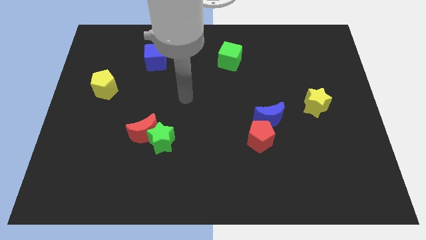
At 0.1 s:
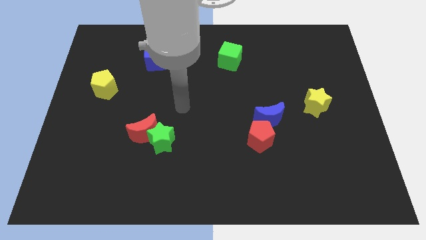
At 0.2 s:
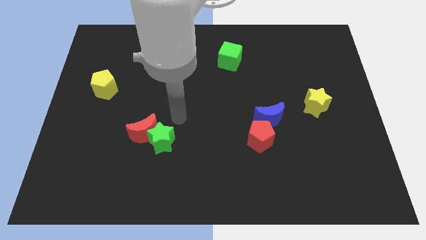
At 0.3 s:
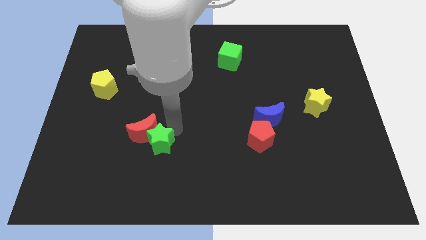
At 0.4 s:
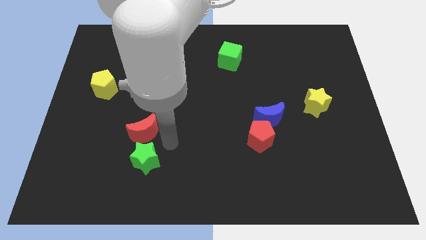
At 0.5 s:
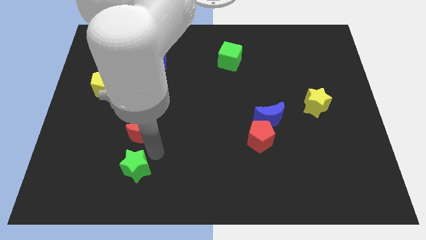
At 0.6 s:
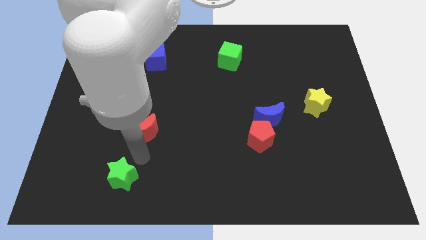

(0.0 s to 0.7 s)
separate the red moon from the green star

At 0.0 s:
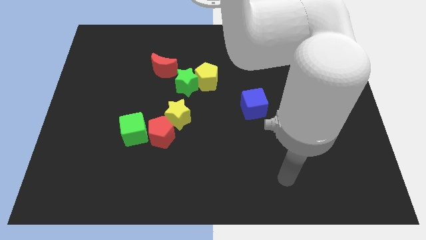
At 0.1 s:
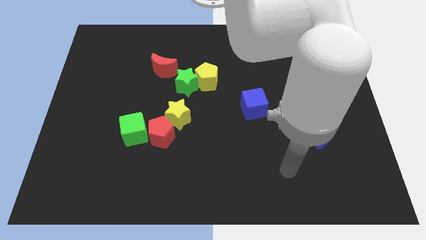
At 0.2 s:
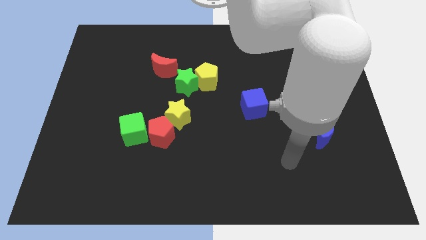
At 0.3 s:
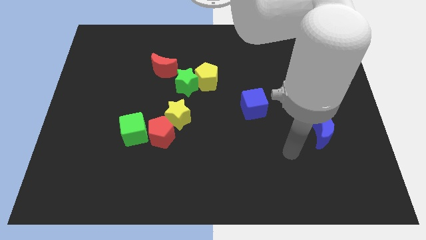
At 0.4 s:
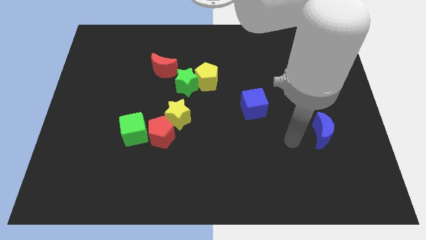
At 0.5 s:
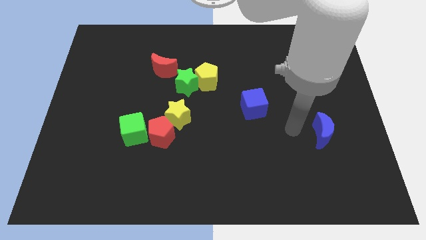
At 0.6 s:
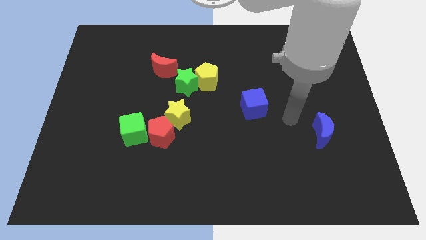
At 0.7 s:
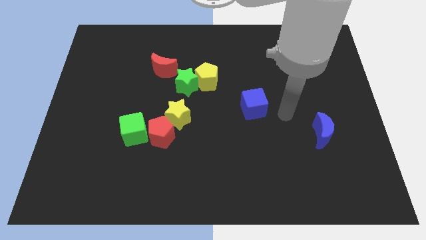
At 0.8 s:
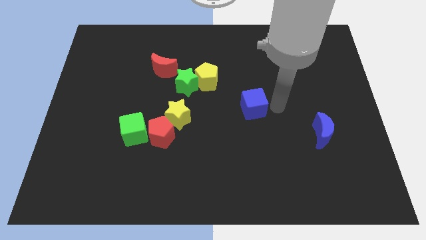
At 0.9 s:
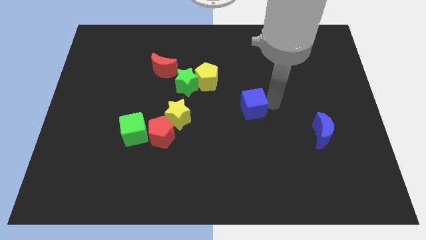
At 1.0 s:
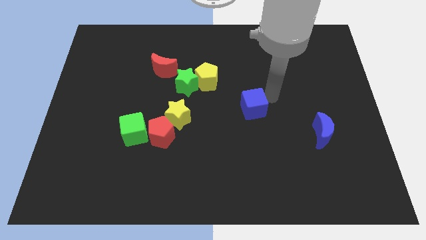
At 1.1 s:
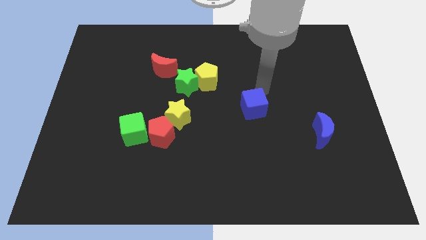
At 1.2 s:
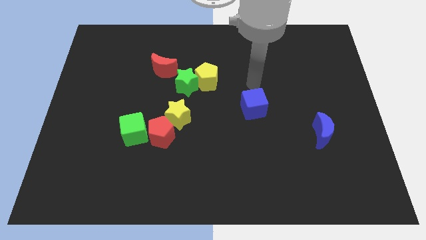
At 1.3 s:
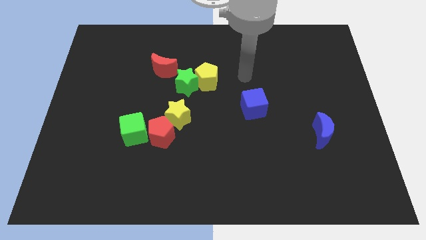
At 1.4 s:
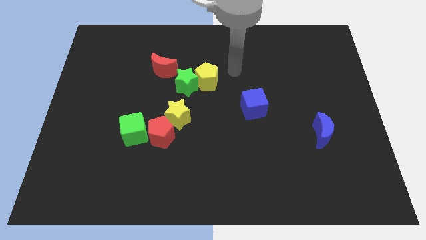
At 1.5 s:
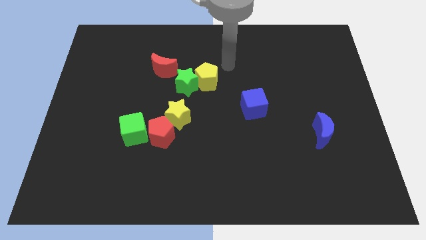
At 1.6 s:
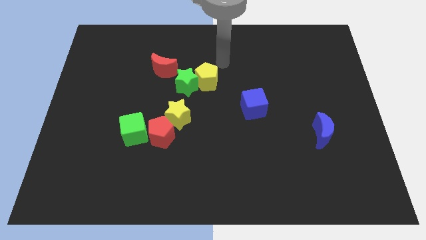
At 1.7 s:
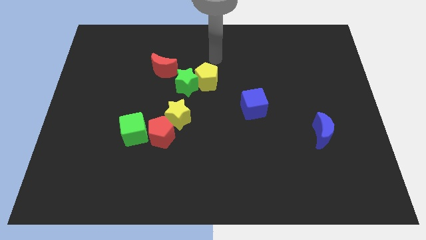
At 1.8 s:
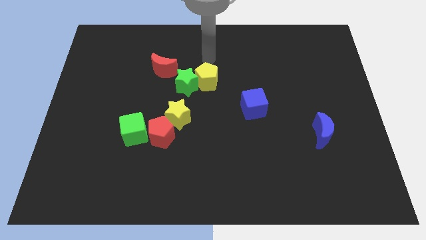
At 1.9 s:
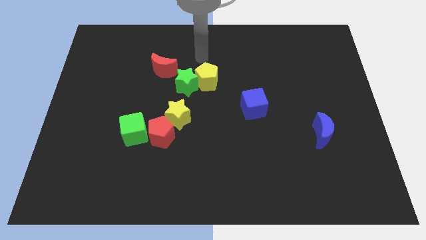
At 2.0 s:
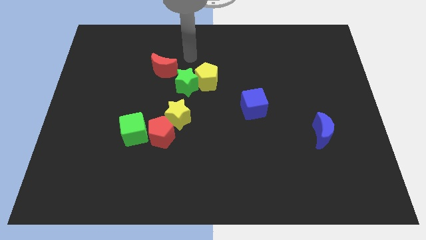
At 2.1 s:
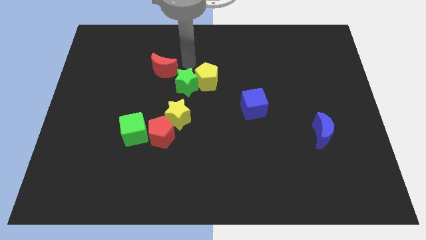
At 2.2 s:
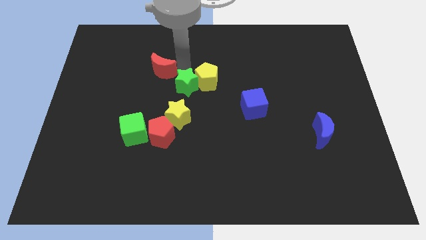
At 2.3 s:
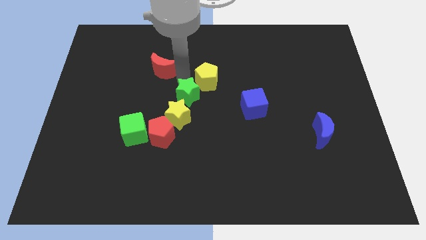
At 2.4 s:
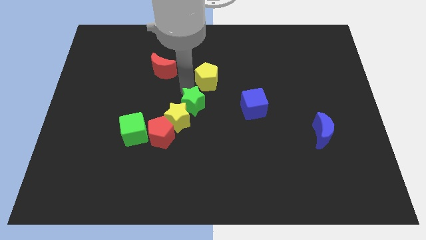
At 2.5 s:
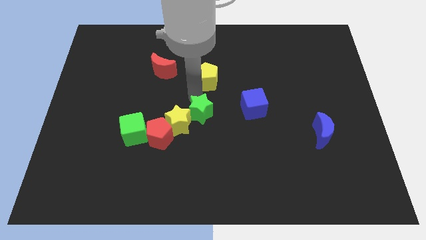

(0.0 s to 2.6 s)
separate the yellow pentagon from the green star

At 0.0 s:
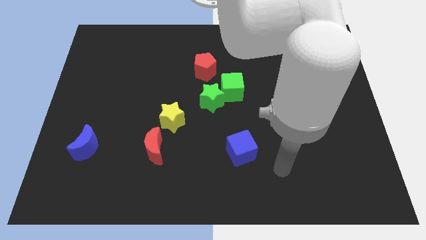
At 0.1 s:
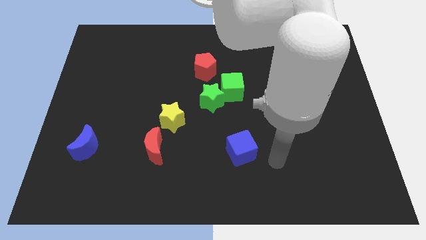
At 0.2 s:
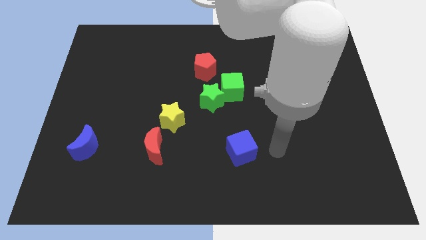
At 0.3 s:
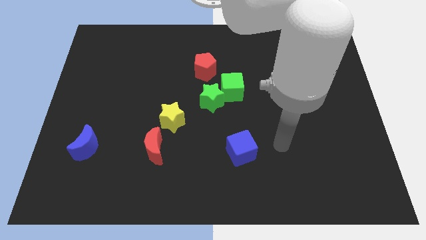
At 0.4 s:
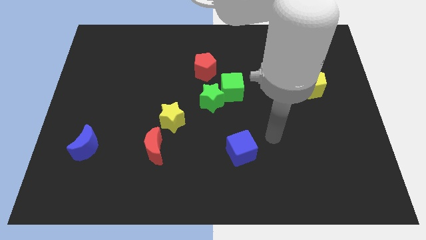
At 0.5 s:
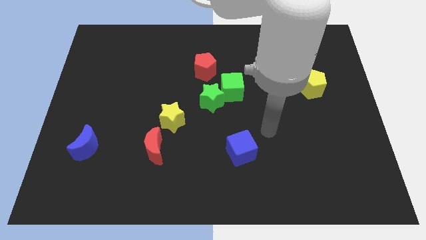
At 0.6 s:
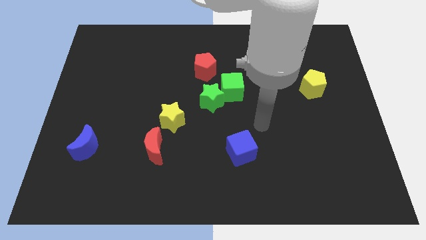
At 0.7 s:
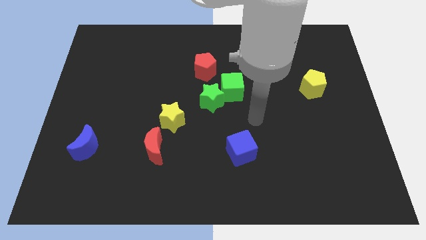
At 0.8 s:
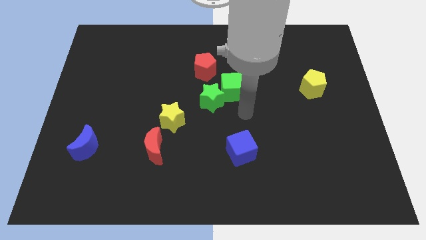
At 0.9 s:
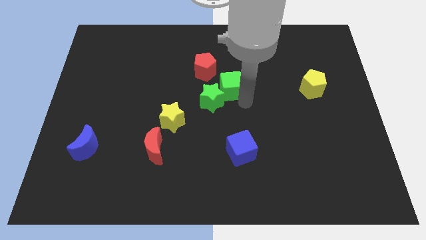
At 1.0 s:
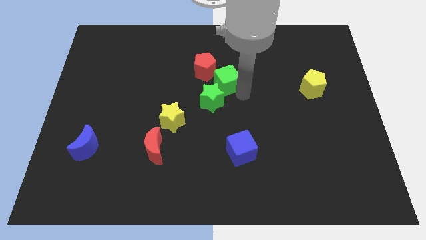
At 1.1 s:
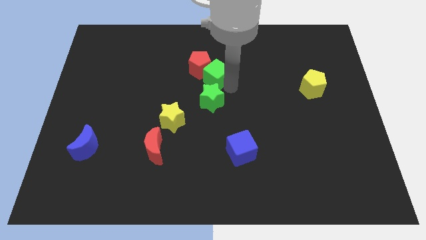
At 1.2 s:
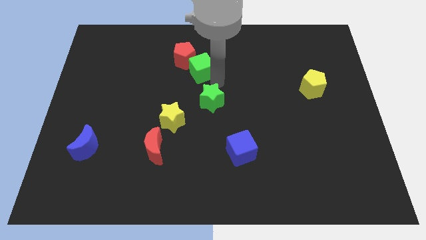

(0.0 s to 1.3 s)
move the green star away from the green cube

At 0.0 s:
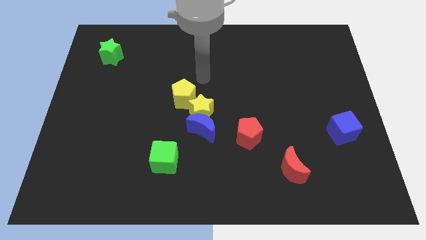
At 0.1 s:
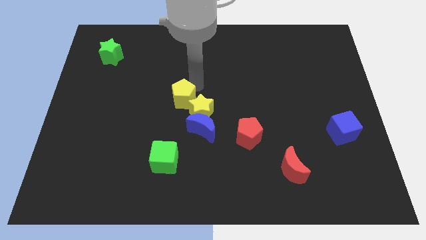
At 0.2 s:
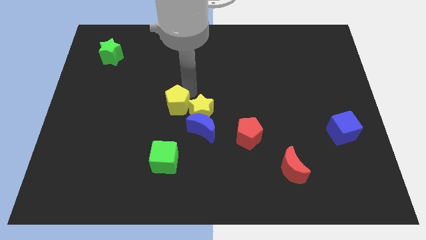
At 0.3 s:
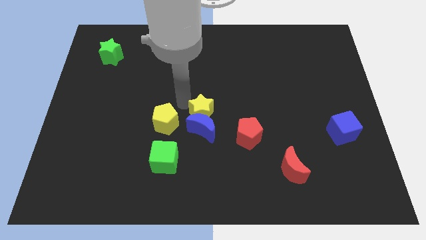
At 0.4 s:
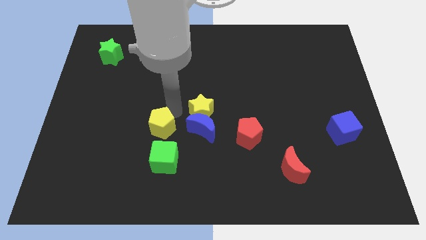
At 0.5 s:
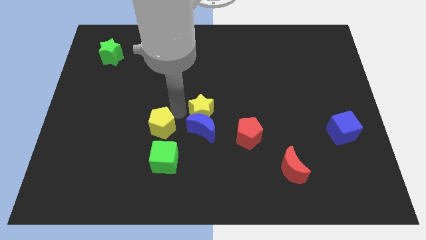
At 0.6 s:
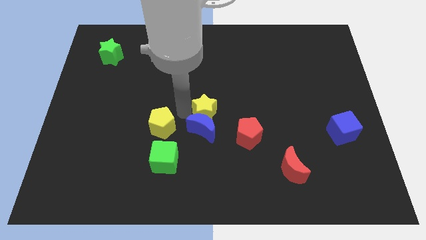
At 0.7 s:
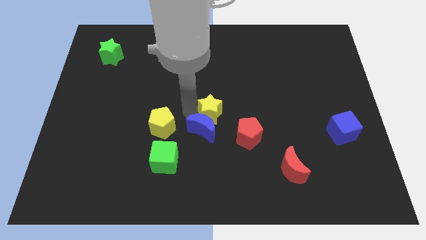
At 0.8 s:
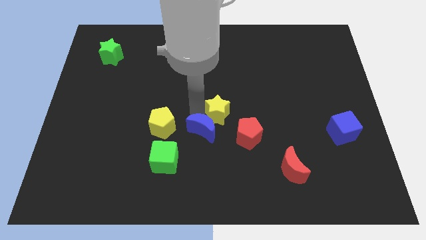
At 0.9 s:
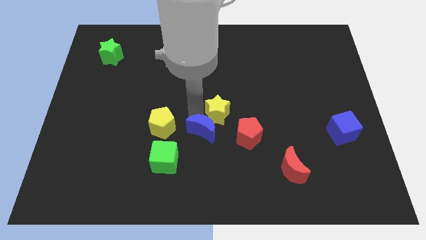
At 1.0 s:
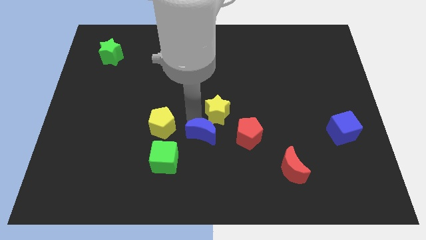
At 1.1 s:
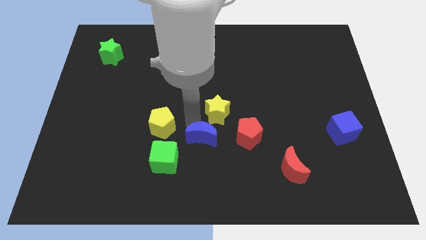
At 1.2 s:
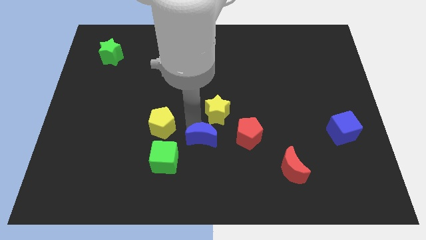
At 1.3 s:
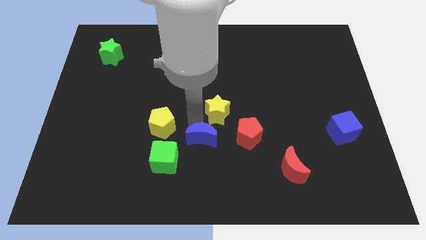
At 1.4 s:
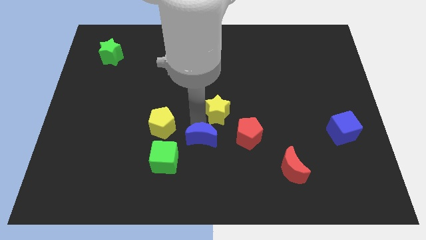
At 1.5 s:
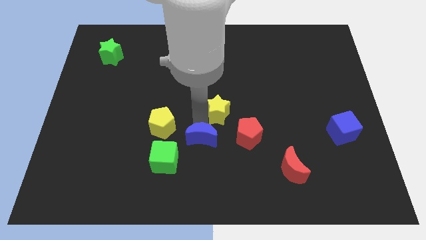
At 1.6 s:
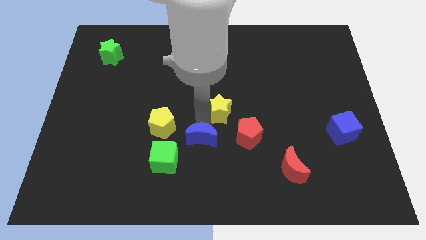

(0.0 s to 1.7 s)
pull the yellow star apart from the blue moon and yellow pentagon

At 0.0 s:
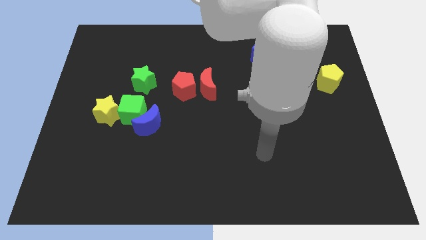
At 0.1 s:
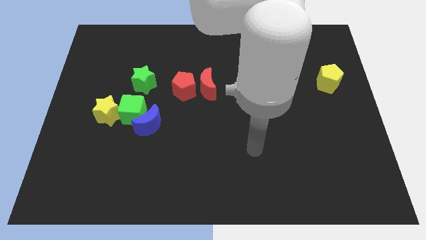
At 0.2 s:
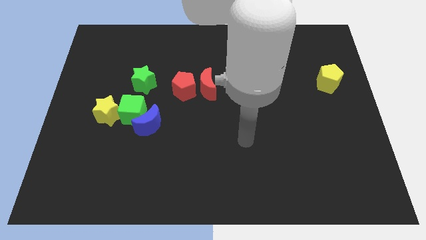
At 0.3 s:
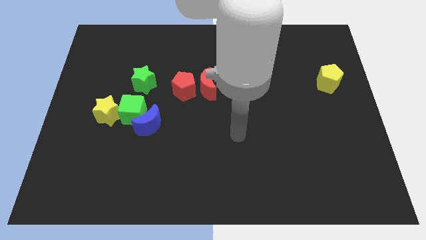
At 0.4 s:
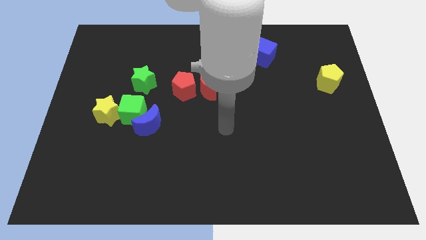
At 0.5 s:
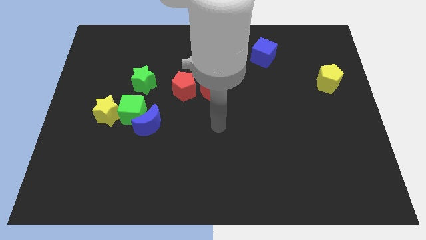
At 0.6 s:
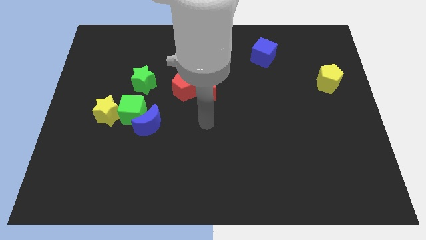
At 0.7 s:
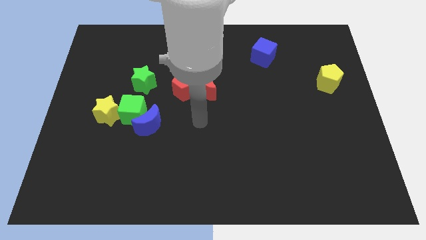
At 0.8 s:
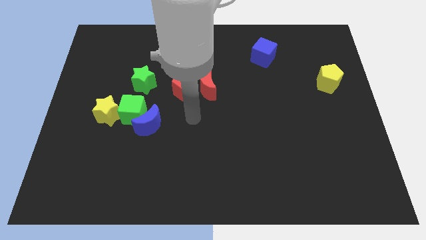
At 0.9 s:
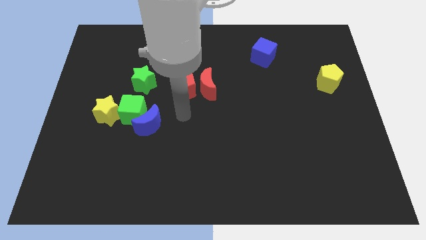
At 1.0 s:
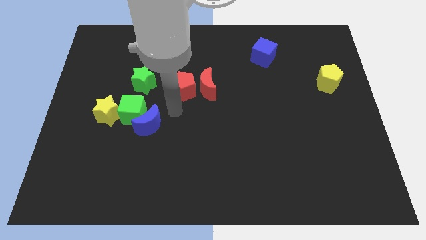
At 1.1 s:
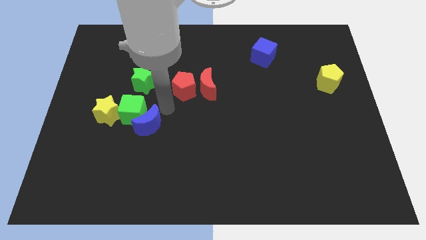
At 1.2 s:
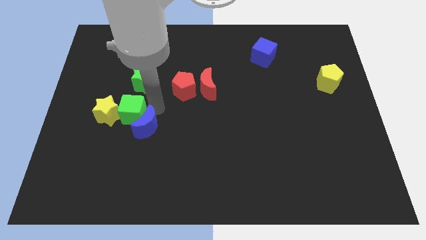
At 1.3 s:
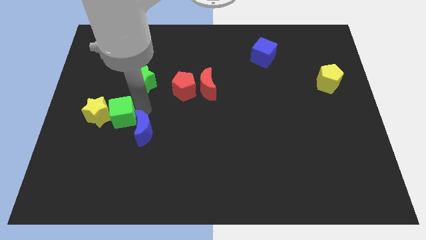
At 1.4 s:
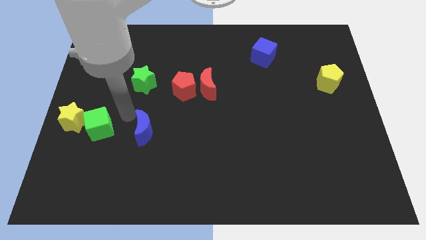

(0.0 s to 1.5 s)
pull the blue moon apart from the green cube

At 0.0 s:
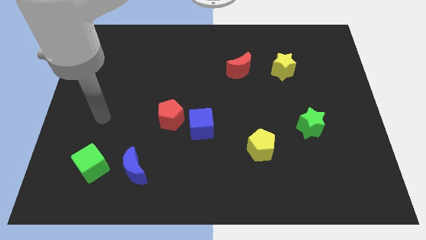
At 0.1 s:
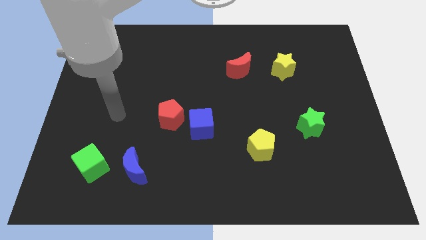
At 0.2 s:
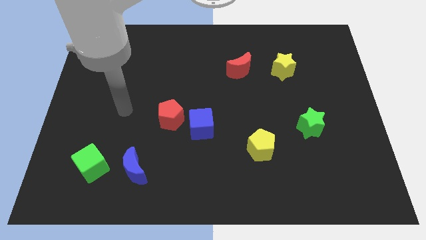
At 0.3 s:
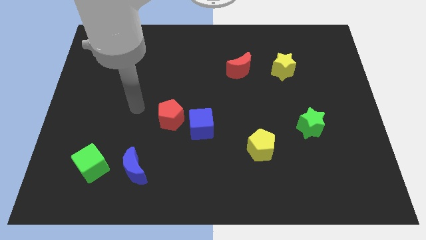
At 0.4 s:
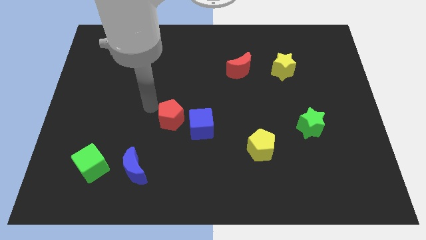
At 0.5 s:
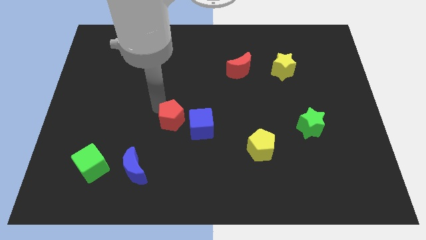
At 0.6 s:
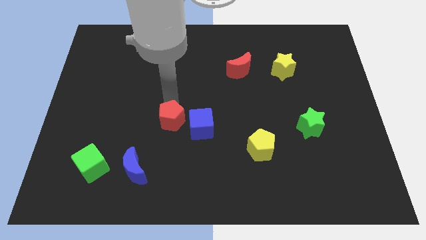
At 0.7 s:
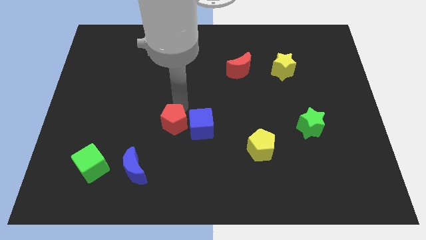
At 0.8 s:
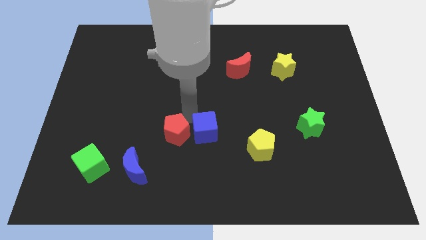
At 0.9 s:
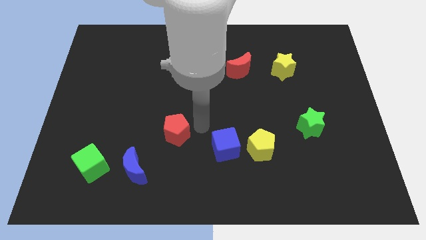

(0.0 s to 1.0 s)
separate the red pentagon from the blue cube

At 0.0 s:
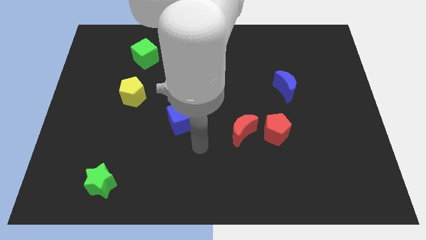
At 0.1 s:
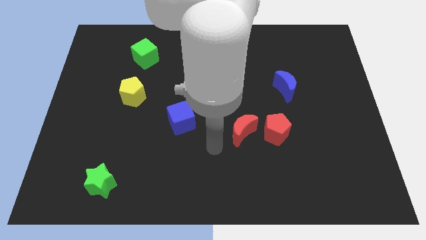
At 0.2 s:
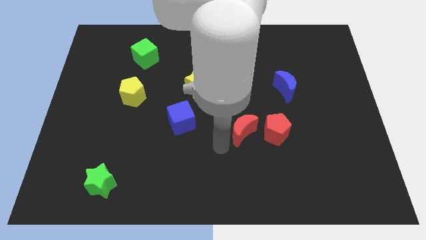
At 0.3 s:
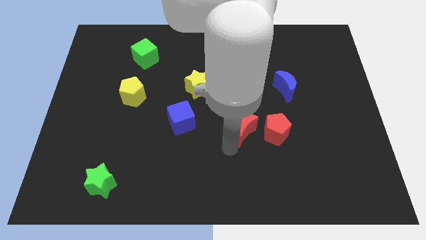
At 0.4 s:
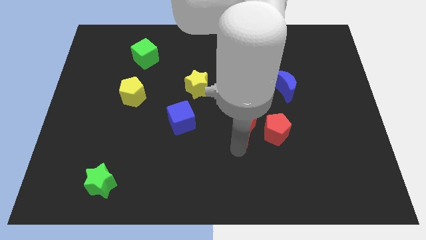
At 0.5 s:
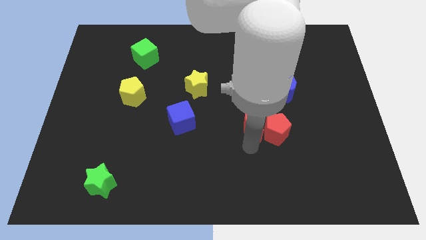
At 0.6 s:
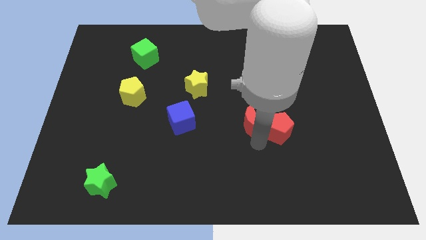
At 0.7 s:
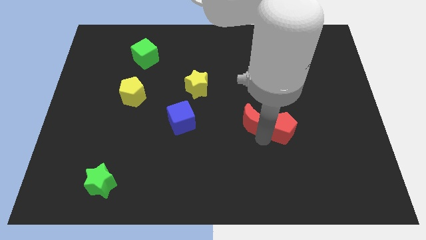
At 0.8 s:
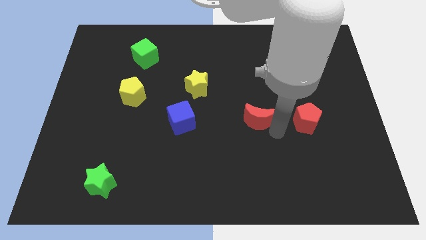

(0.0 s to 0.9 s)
move the red moon away from the red pentagon
